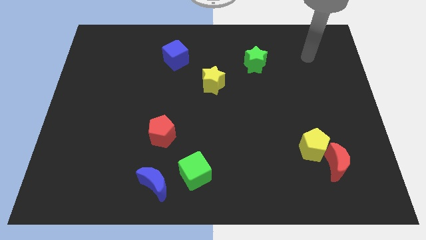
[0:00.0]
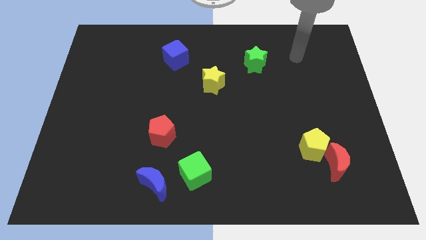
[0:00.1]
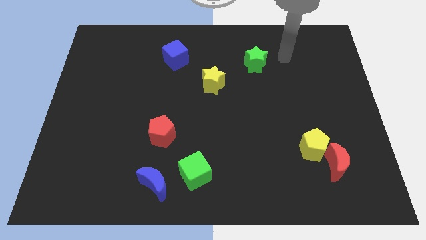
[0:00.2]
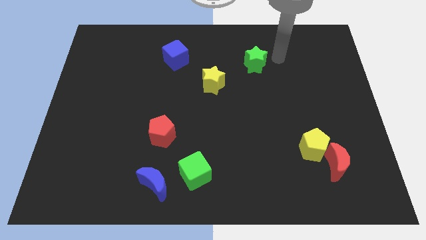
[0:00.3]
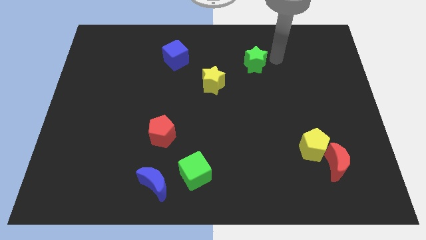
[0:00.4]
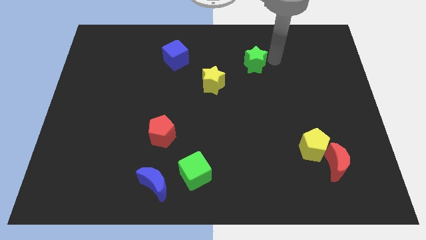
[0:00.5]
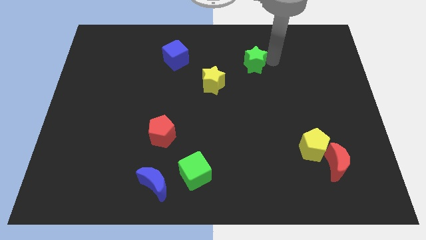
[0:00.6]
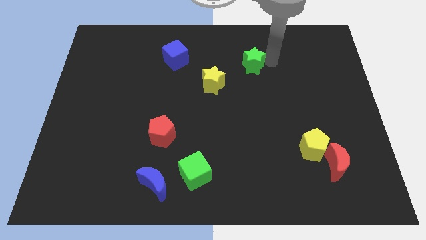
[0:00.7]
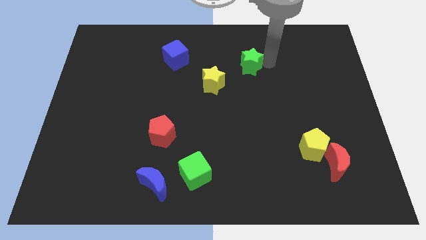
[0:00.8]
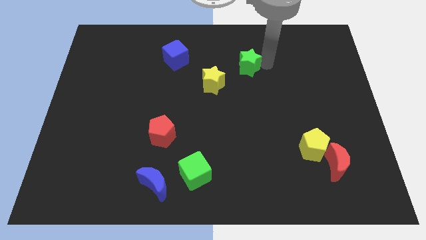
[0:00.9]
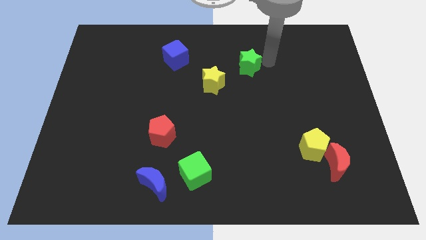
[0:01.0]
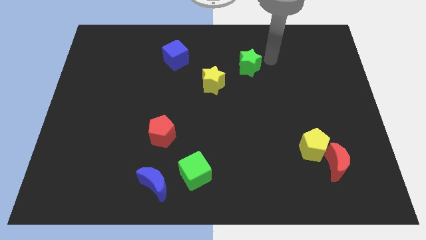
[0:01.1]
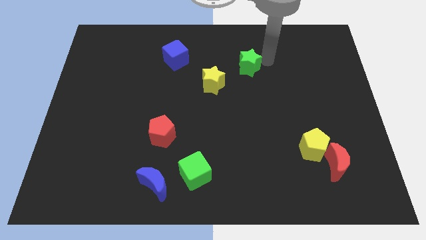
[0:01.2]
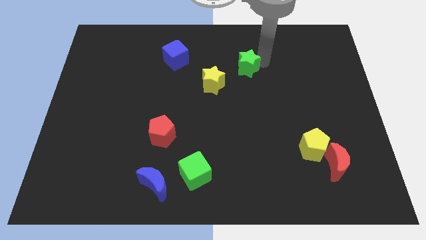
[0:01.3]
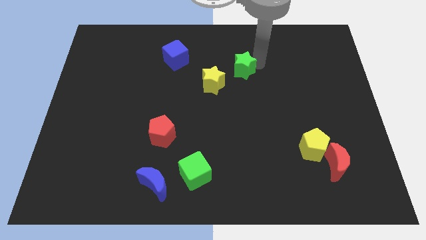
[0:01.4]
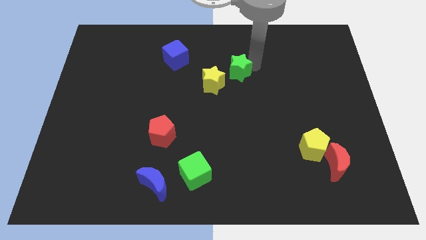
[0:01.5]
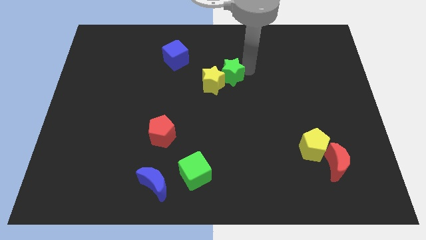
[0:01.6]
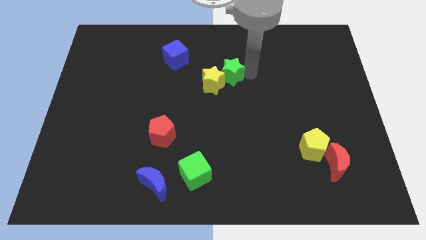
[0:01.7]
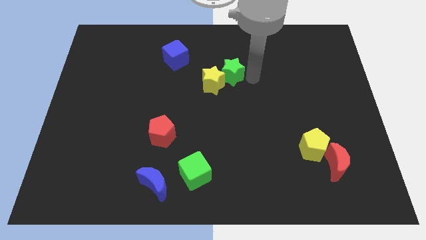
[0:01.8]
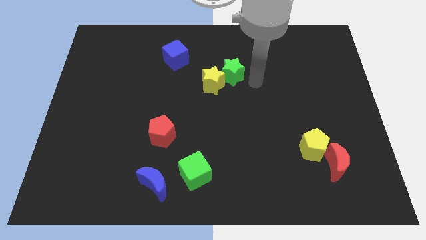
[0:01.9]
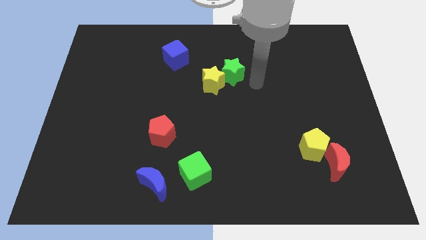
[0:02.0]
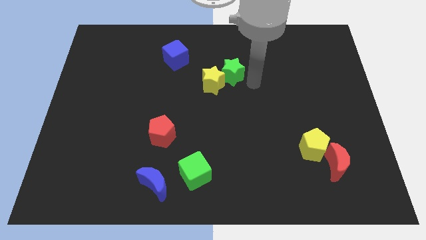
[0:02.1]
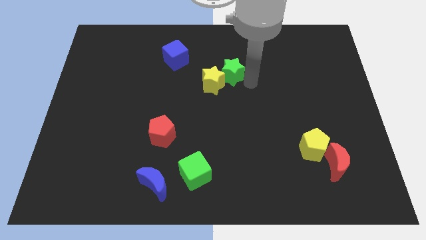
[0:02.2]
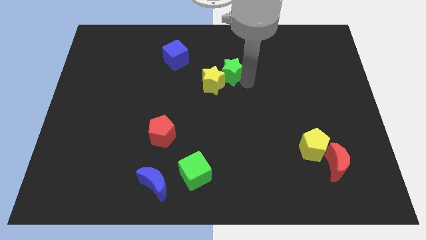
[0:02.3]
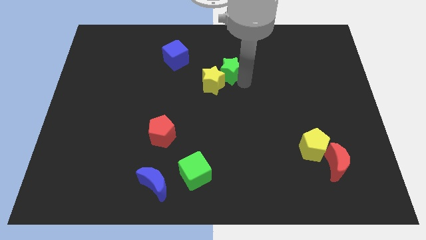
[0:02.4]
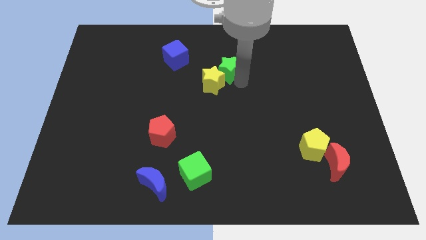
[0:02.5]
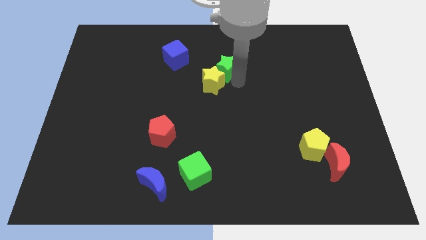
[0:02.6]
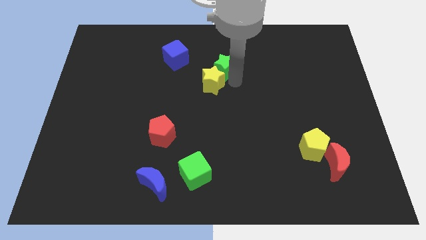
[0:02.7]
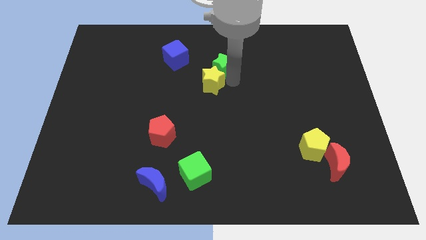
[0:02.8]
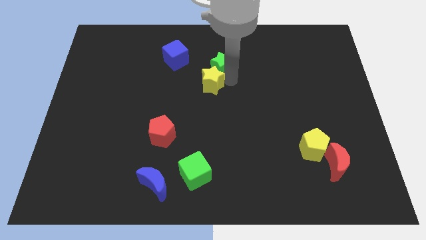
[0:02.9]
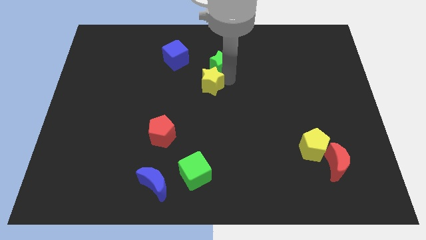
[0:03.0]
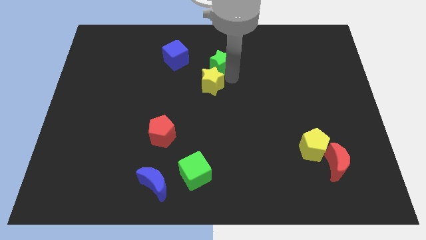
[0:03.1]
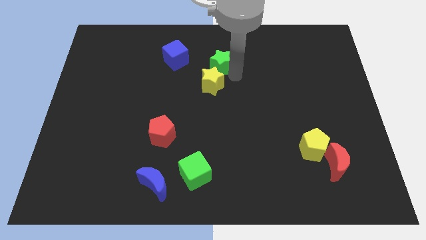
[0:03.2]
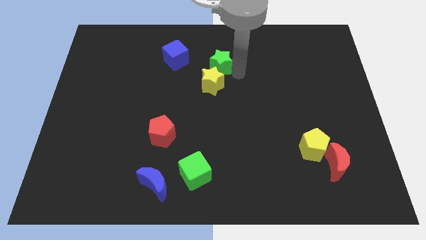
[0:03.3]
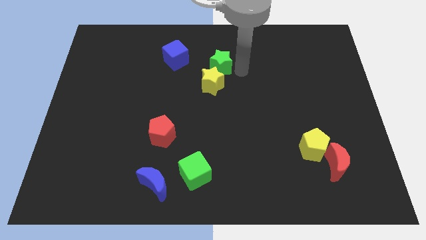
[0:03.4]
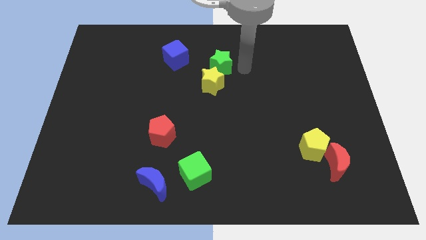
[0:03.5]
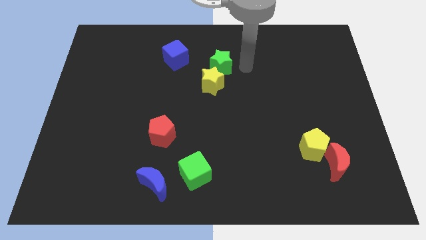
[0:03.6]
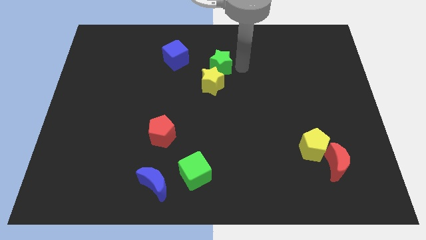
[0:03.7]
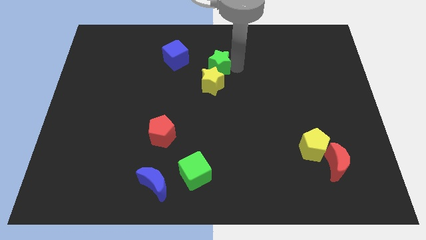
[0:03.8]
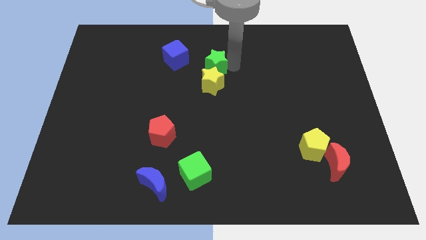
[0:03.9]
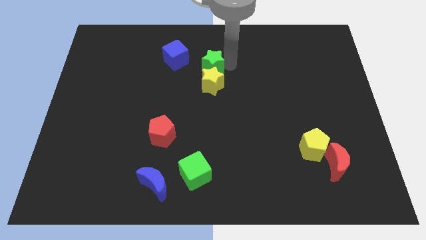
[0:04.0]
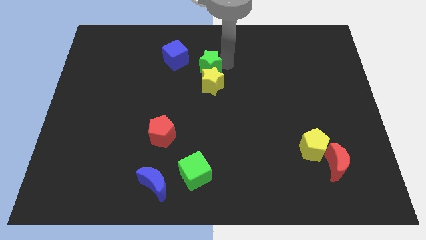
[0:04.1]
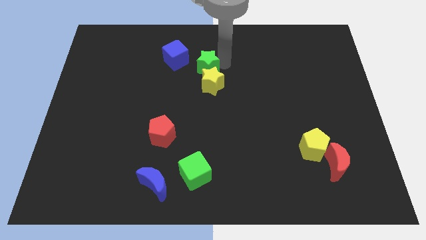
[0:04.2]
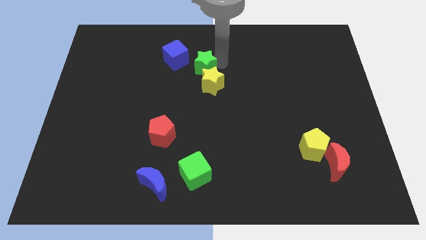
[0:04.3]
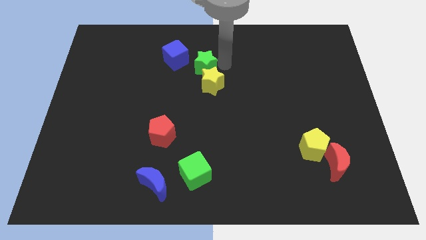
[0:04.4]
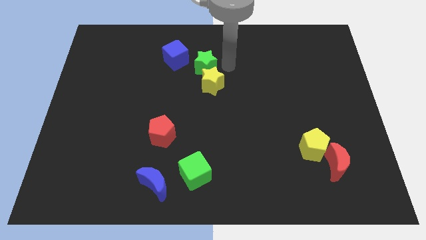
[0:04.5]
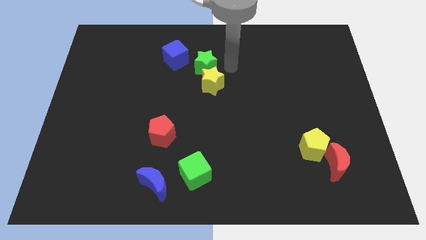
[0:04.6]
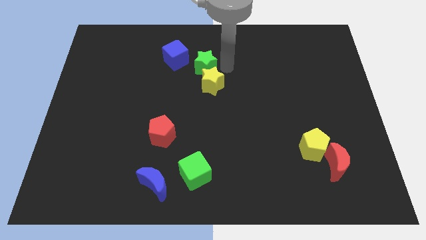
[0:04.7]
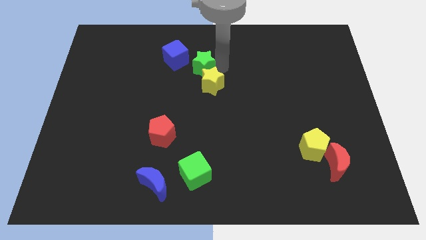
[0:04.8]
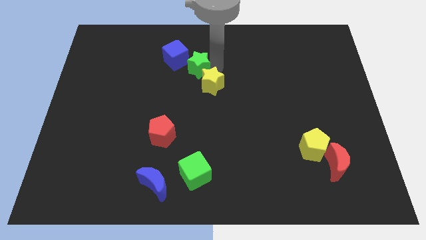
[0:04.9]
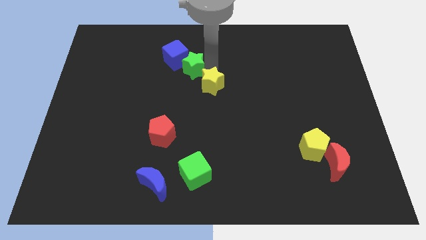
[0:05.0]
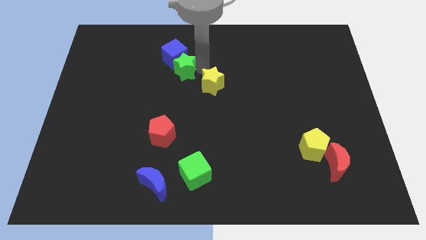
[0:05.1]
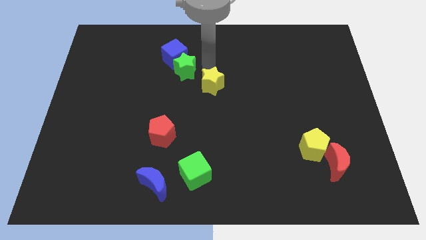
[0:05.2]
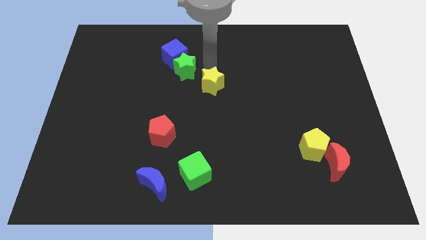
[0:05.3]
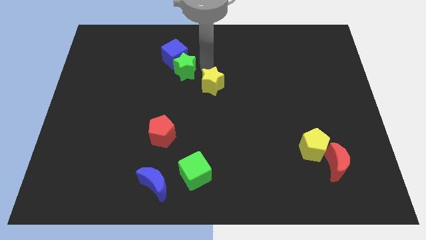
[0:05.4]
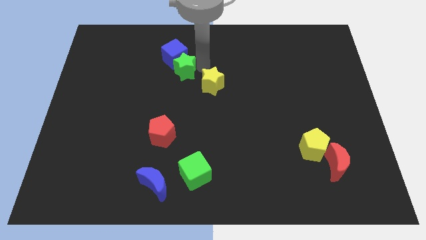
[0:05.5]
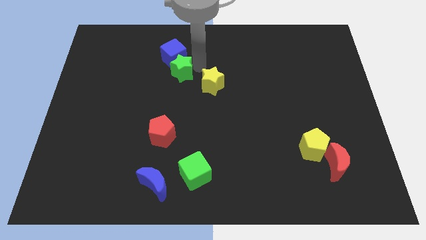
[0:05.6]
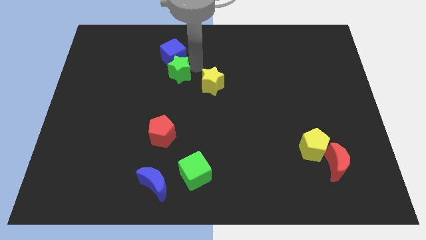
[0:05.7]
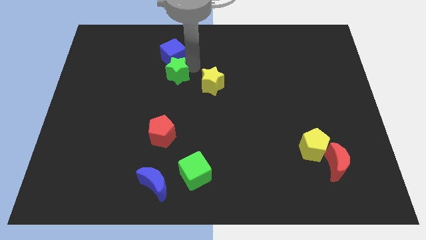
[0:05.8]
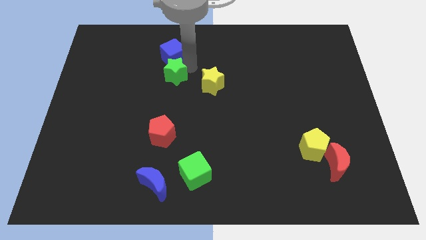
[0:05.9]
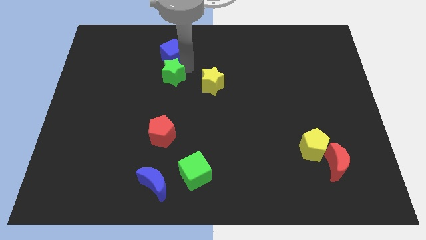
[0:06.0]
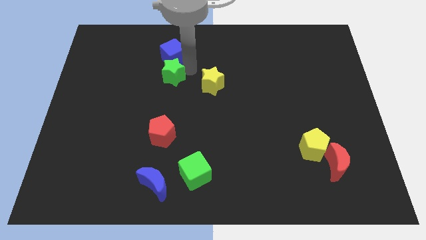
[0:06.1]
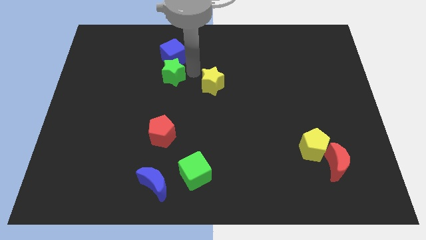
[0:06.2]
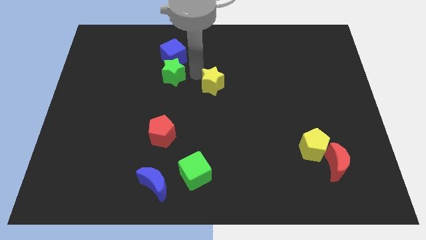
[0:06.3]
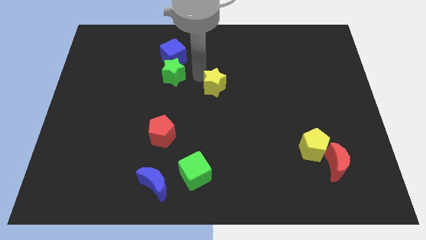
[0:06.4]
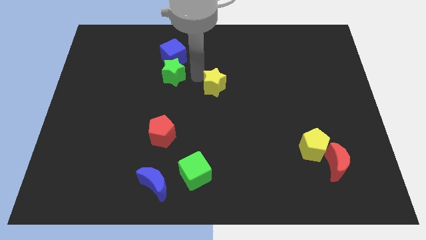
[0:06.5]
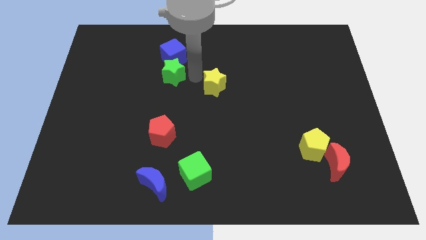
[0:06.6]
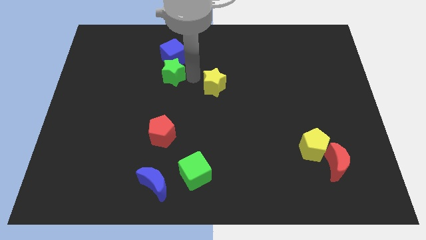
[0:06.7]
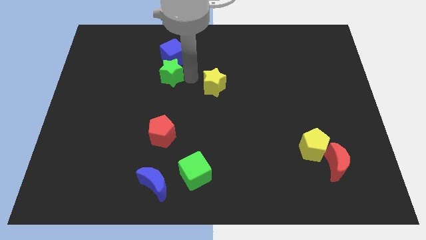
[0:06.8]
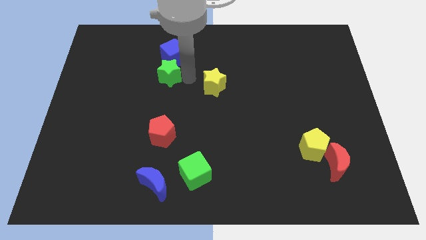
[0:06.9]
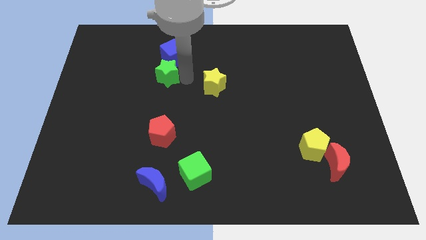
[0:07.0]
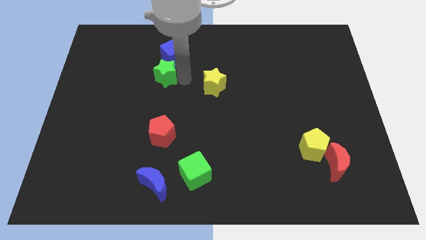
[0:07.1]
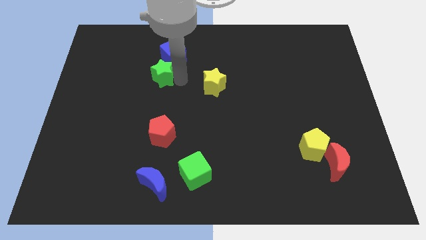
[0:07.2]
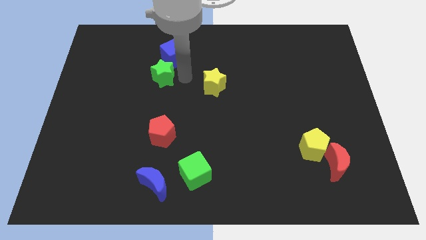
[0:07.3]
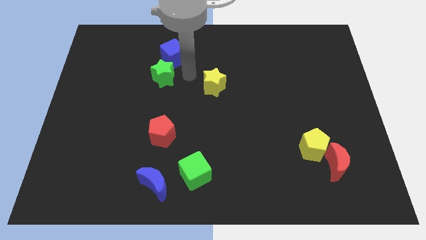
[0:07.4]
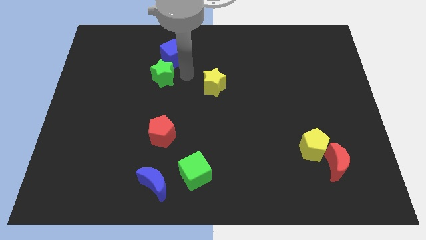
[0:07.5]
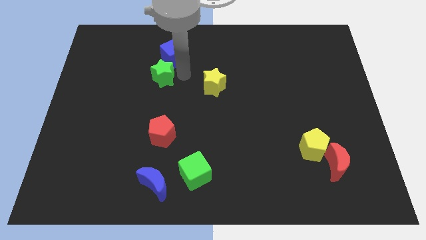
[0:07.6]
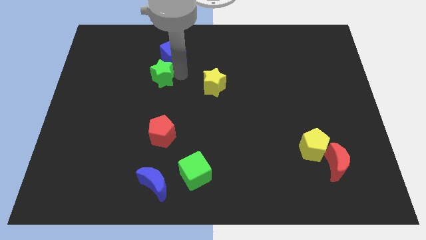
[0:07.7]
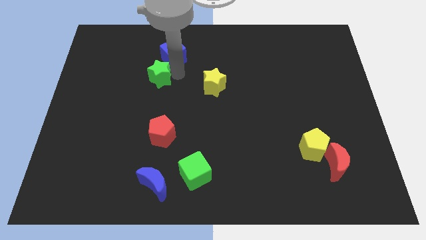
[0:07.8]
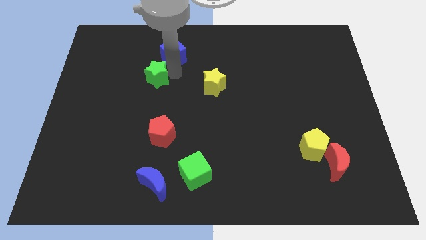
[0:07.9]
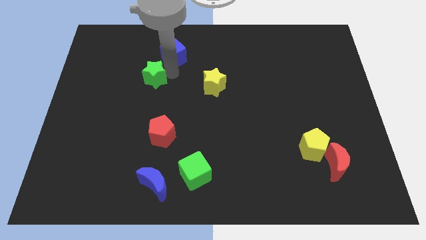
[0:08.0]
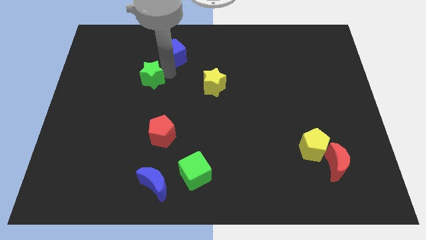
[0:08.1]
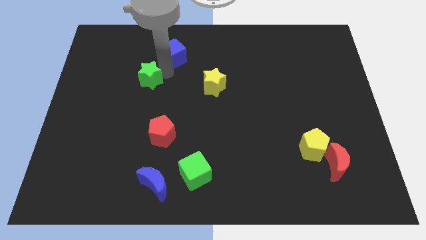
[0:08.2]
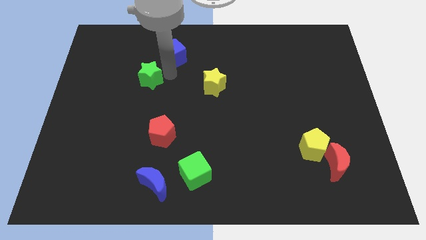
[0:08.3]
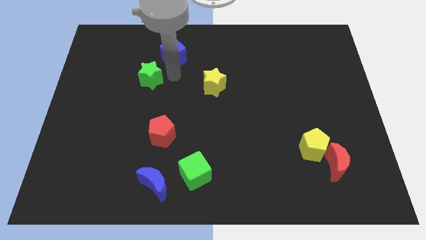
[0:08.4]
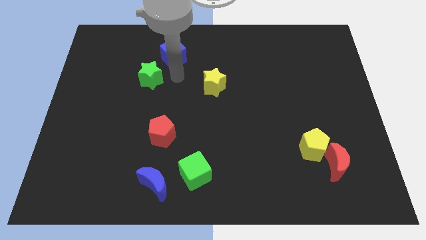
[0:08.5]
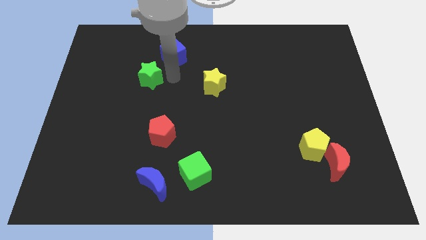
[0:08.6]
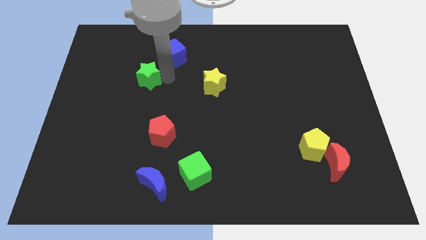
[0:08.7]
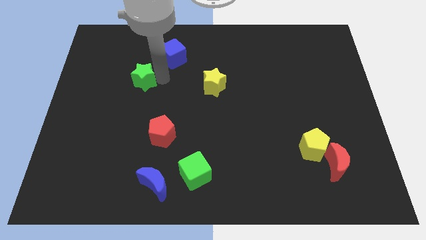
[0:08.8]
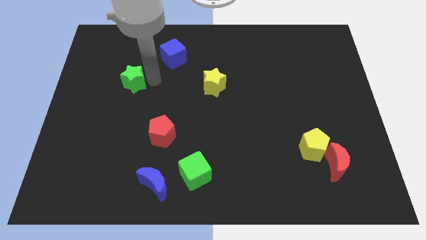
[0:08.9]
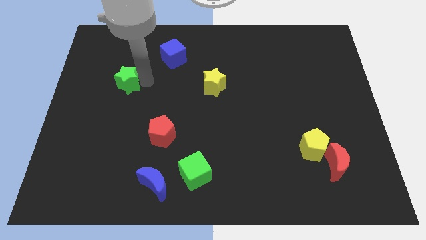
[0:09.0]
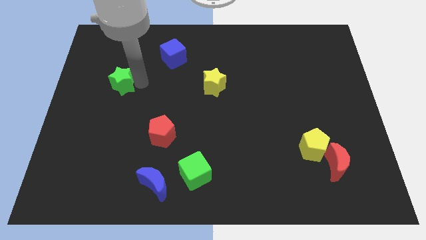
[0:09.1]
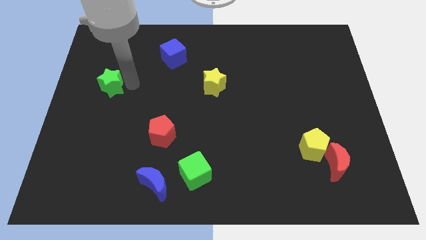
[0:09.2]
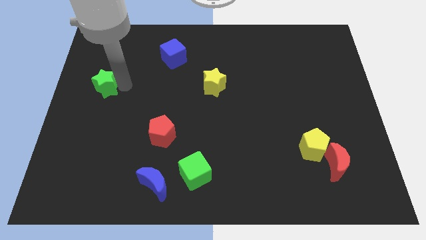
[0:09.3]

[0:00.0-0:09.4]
move the green star to the left side
